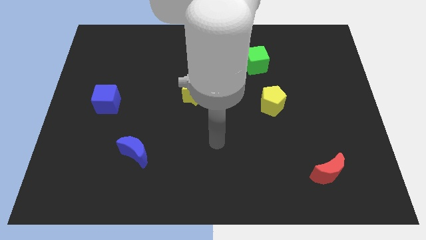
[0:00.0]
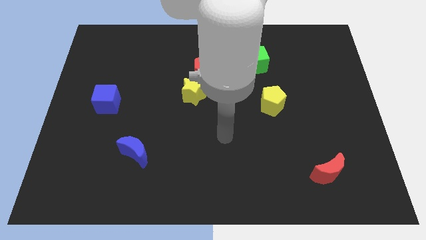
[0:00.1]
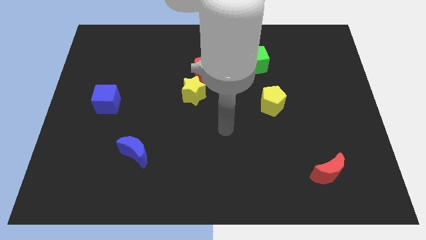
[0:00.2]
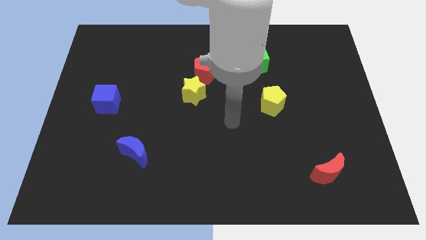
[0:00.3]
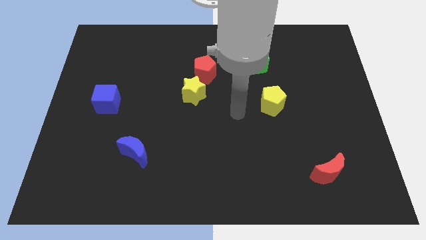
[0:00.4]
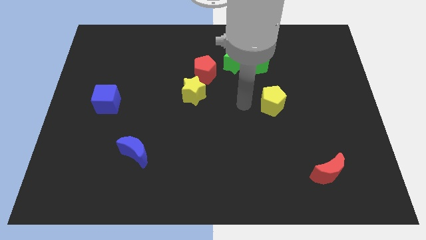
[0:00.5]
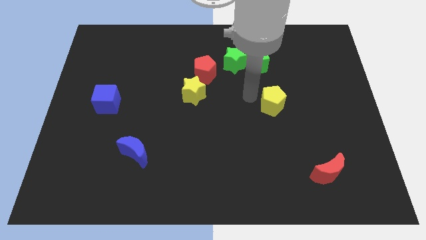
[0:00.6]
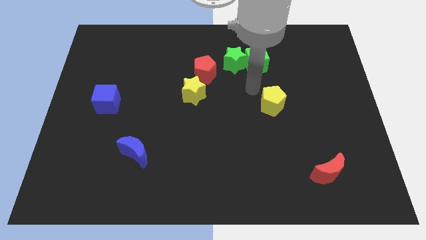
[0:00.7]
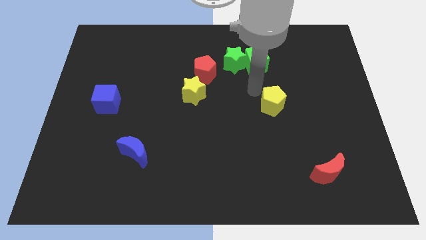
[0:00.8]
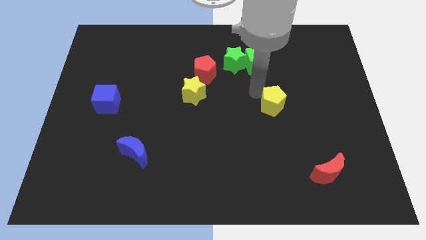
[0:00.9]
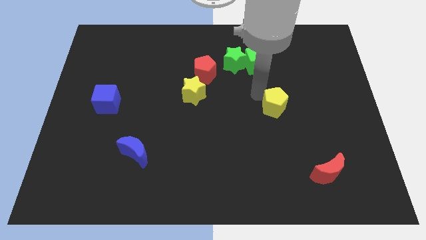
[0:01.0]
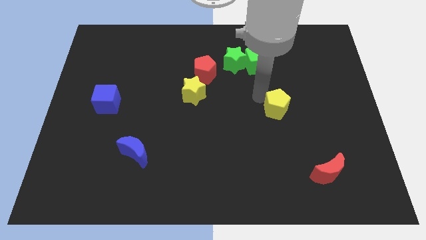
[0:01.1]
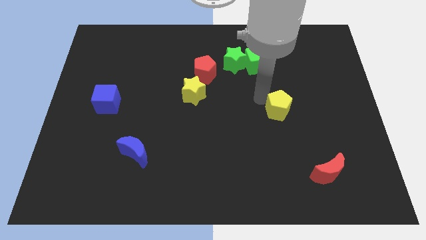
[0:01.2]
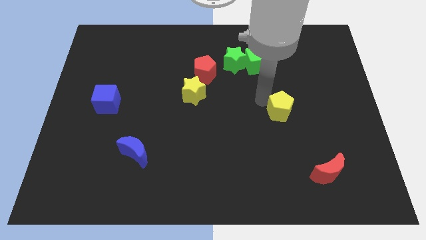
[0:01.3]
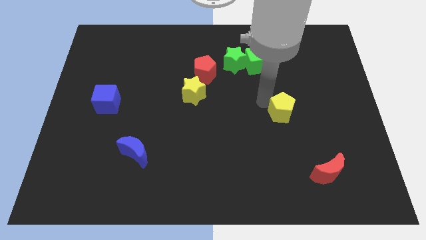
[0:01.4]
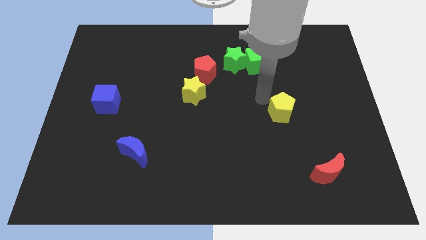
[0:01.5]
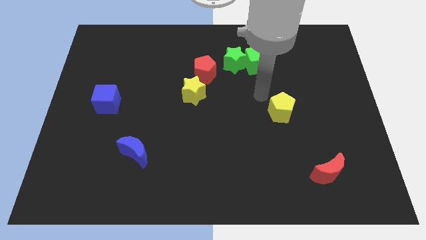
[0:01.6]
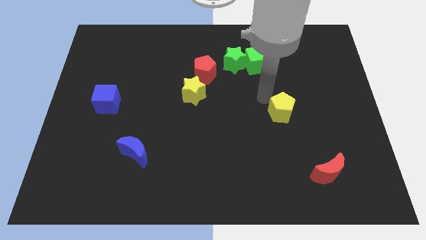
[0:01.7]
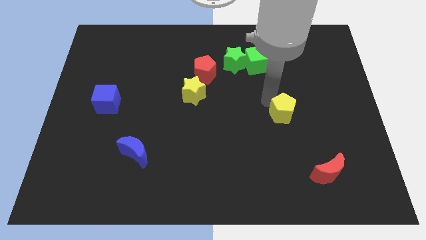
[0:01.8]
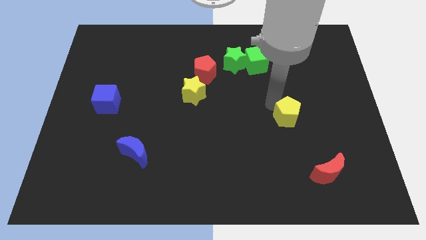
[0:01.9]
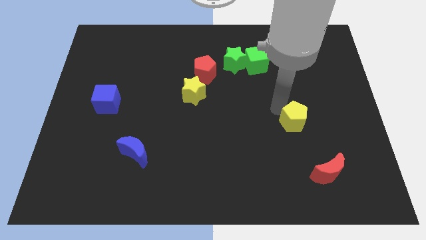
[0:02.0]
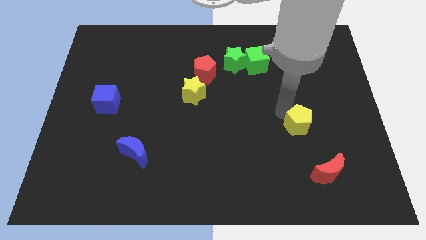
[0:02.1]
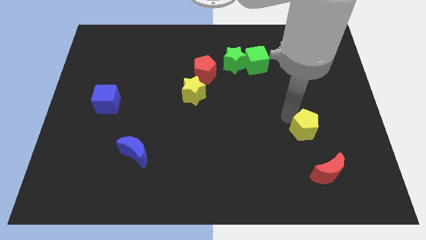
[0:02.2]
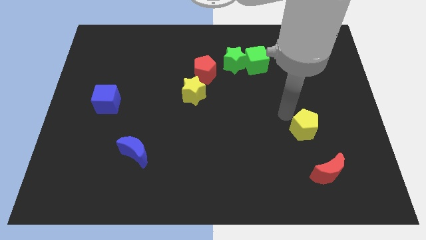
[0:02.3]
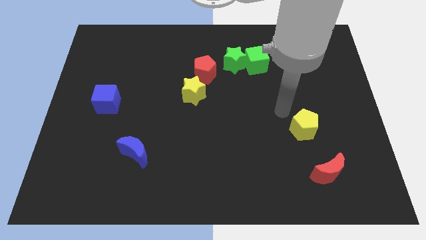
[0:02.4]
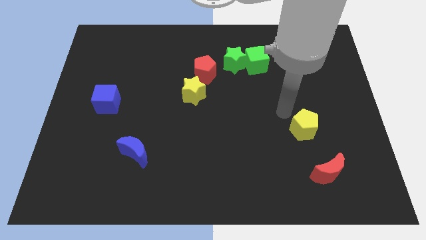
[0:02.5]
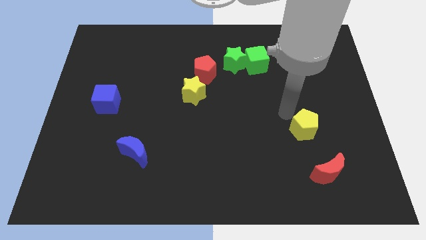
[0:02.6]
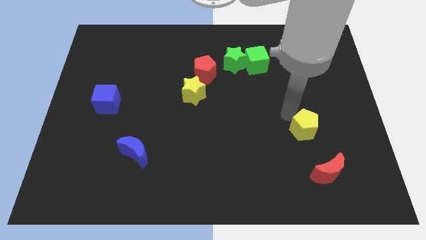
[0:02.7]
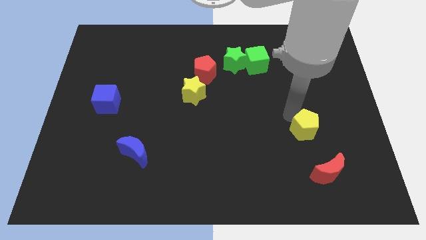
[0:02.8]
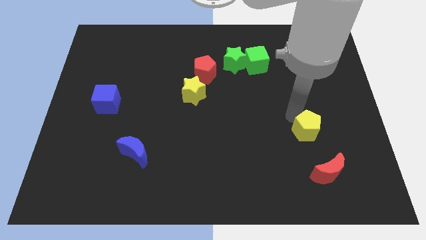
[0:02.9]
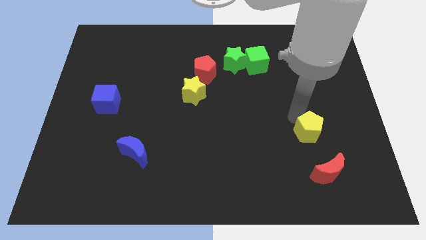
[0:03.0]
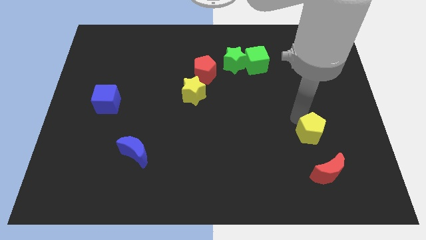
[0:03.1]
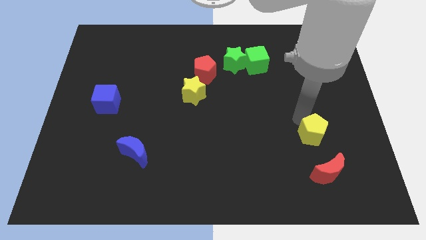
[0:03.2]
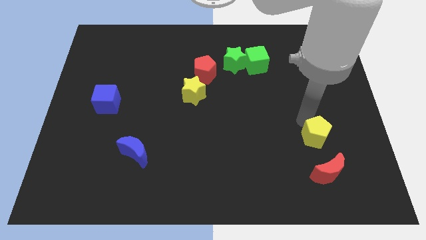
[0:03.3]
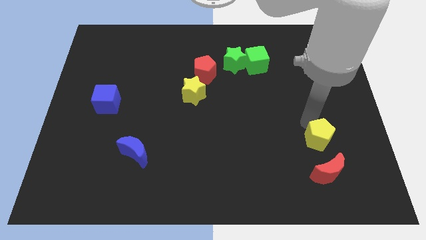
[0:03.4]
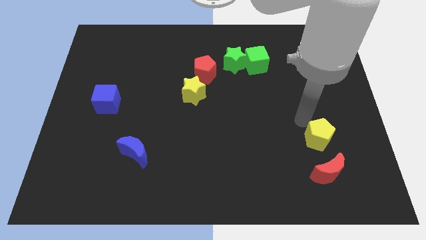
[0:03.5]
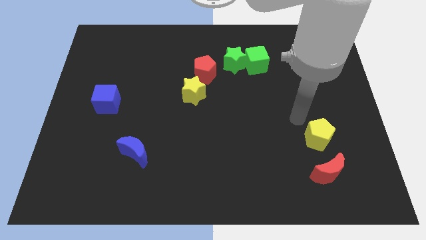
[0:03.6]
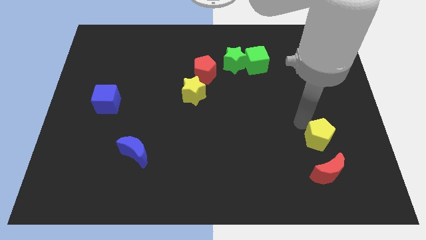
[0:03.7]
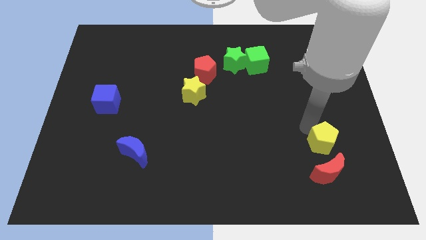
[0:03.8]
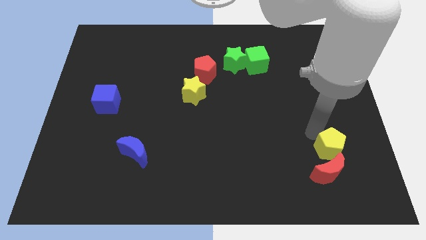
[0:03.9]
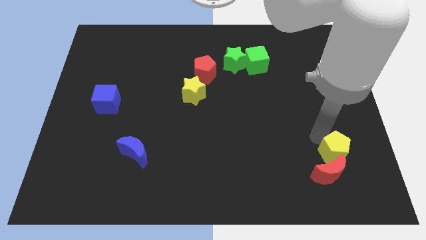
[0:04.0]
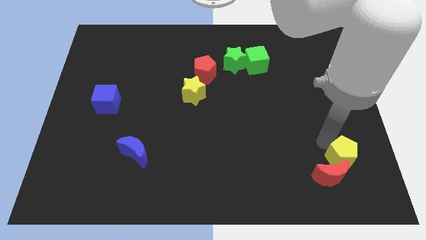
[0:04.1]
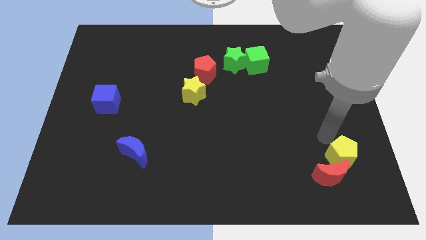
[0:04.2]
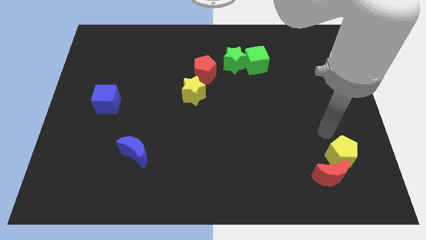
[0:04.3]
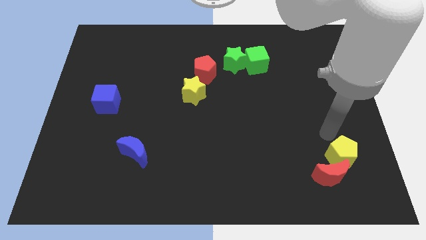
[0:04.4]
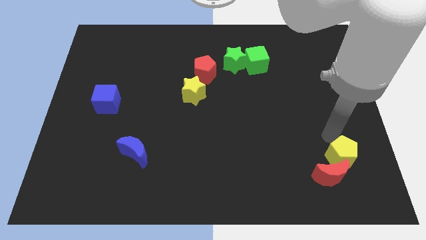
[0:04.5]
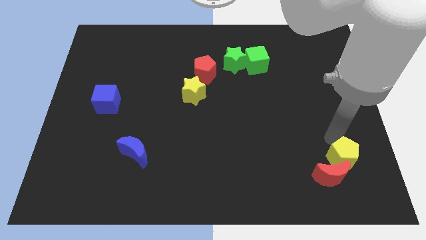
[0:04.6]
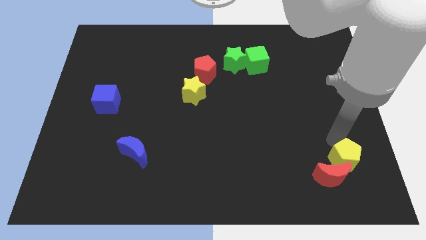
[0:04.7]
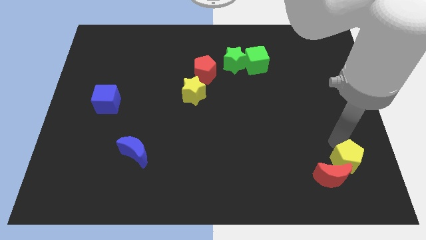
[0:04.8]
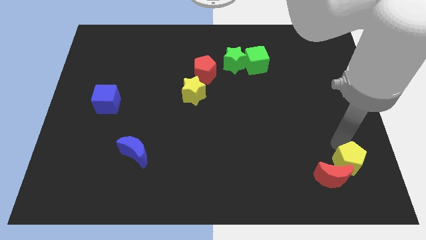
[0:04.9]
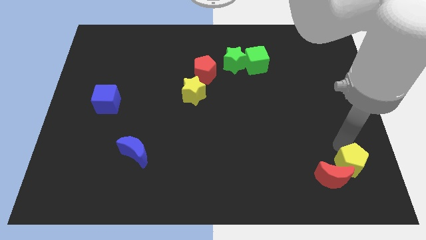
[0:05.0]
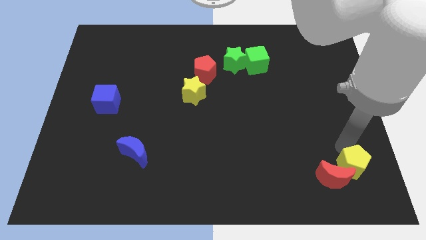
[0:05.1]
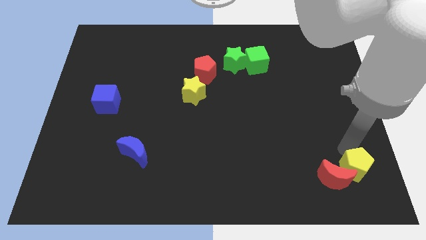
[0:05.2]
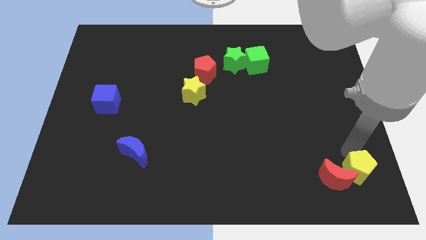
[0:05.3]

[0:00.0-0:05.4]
put the yellow pentagon to the bottom right of the board

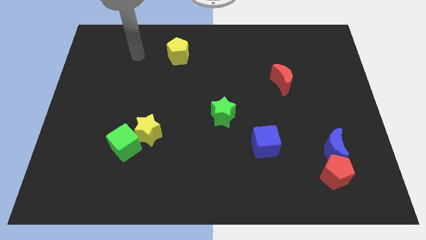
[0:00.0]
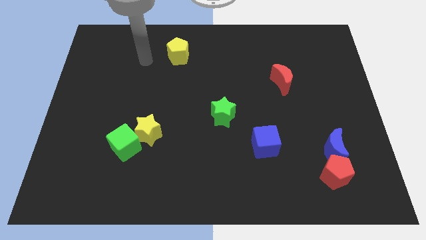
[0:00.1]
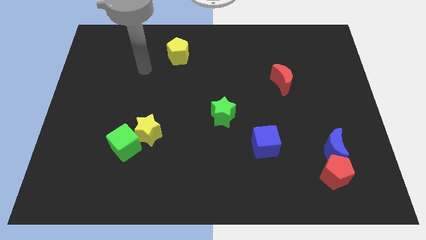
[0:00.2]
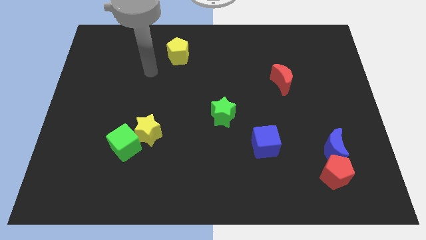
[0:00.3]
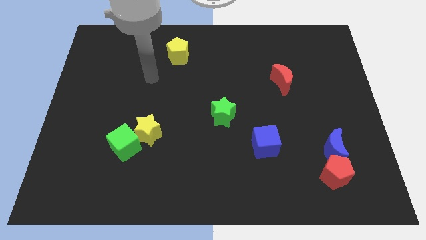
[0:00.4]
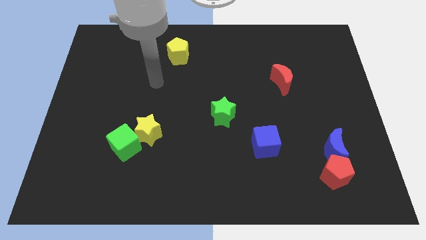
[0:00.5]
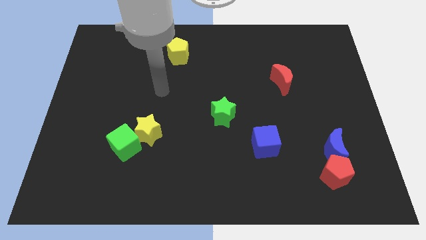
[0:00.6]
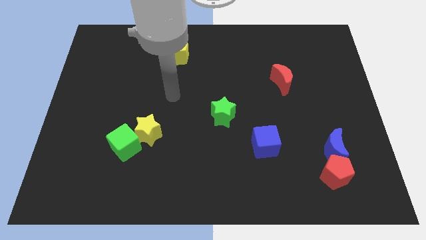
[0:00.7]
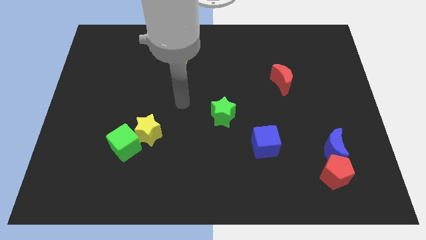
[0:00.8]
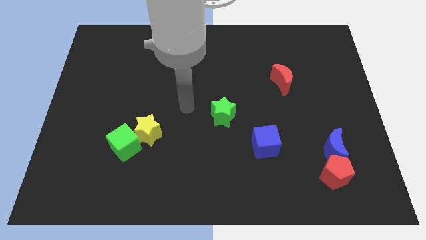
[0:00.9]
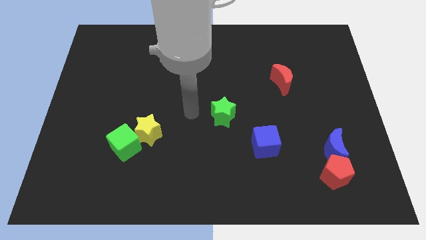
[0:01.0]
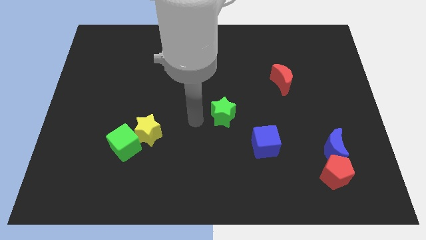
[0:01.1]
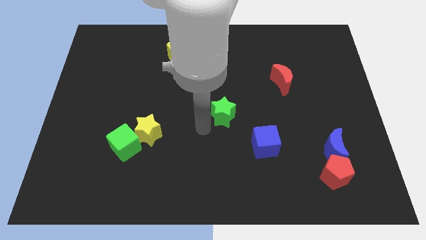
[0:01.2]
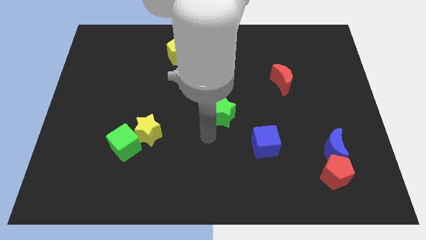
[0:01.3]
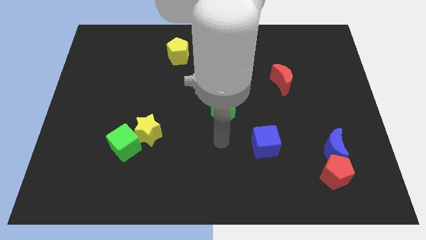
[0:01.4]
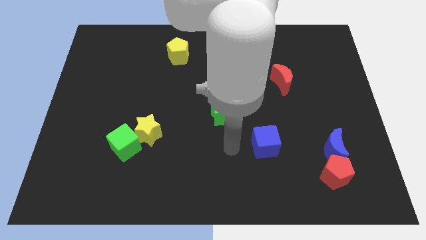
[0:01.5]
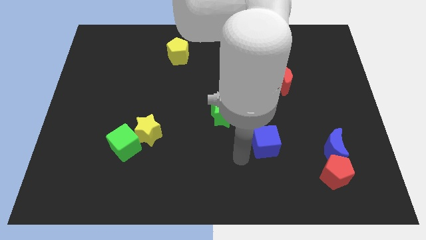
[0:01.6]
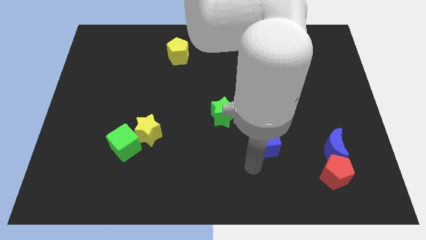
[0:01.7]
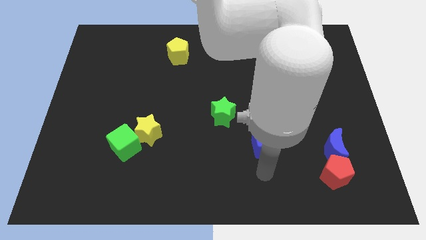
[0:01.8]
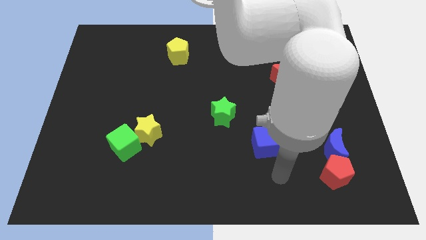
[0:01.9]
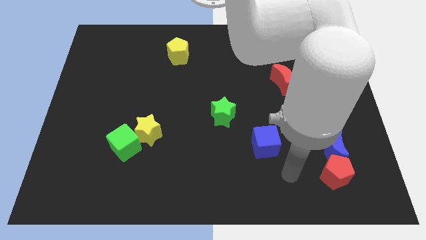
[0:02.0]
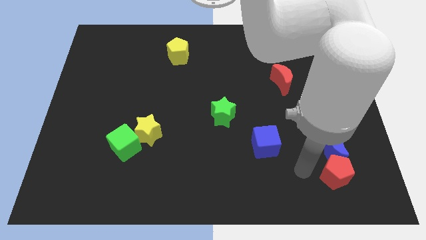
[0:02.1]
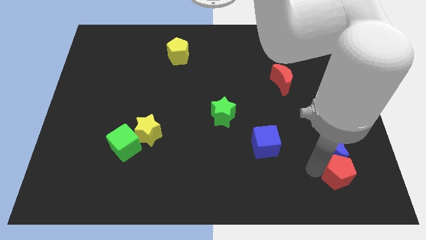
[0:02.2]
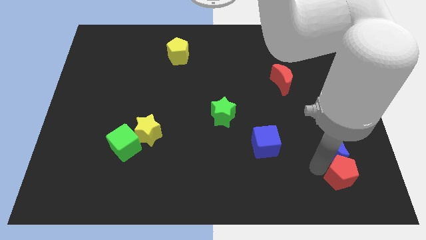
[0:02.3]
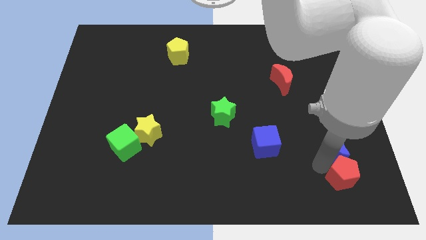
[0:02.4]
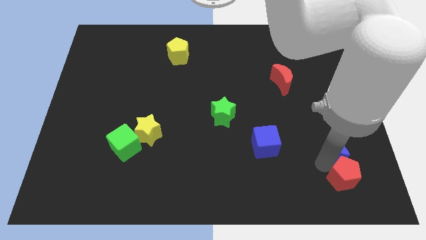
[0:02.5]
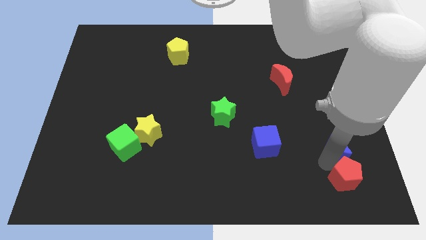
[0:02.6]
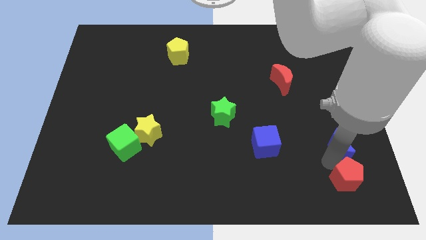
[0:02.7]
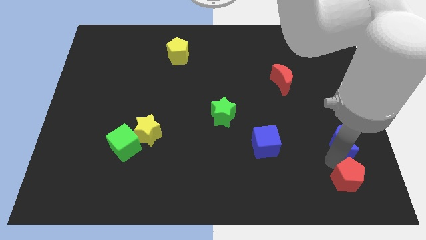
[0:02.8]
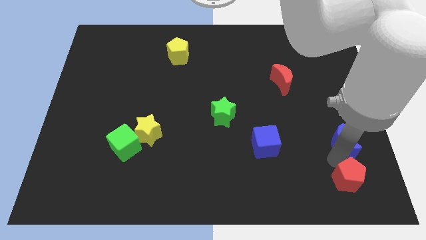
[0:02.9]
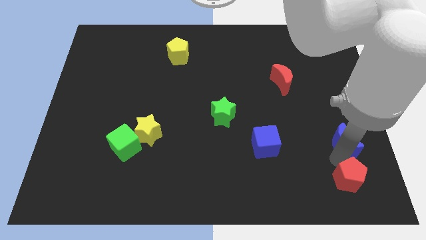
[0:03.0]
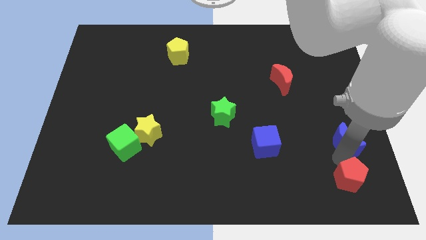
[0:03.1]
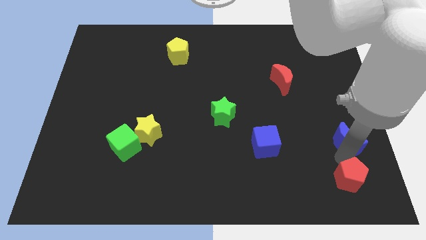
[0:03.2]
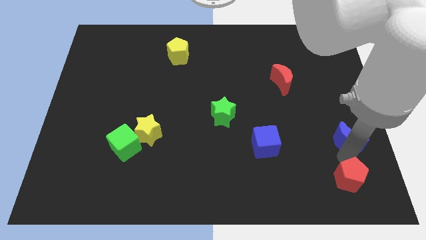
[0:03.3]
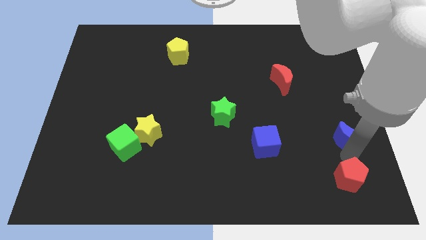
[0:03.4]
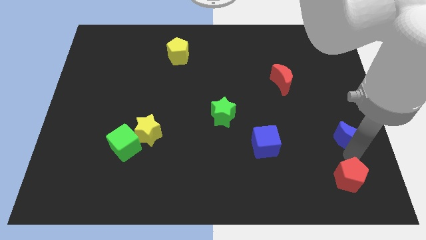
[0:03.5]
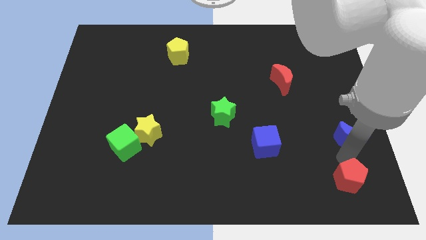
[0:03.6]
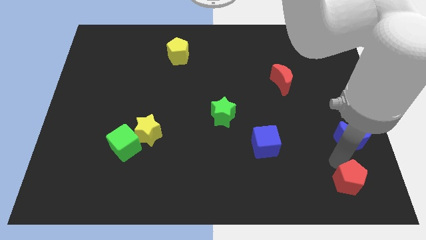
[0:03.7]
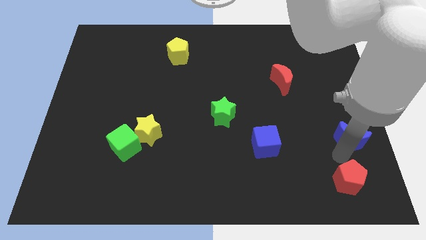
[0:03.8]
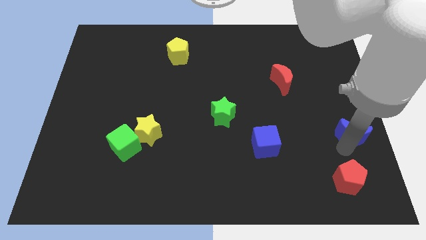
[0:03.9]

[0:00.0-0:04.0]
push the blue moon to the right side
